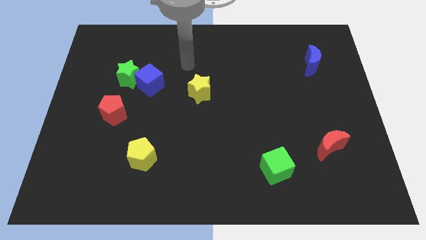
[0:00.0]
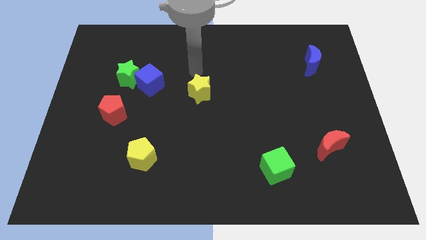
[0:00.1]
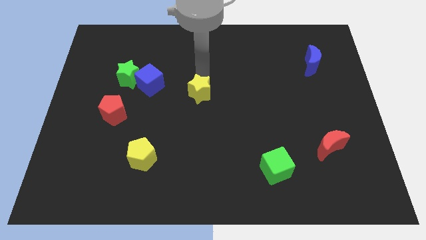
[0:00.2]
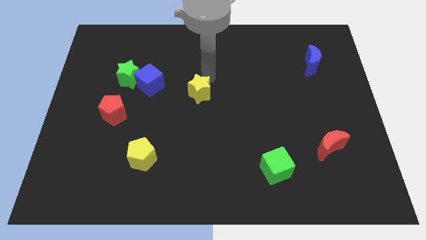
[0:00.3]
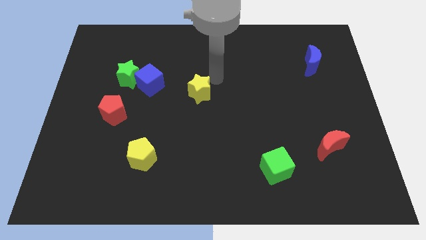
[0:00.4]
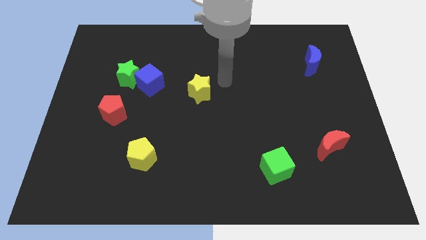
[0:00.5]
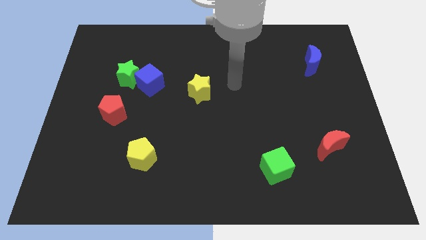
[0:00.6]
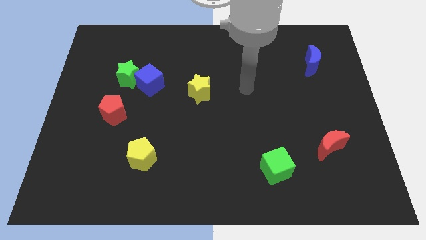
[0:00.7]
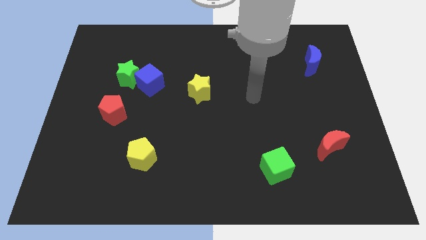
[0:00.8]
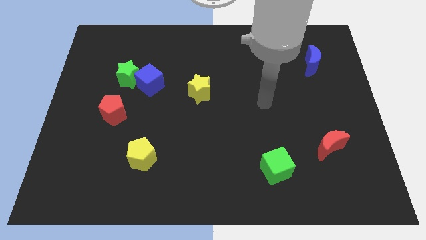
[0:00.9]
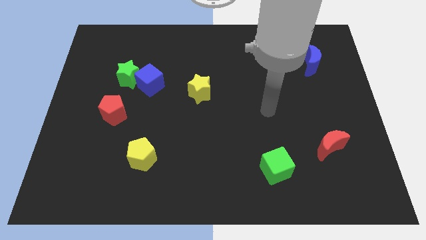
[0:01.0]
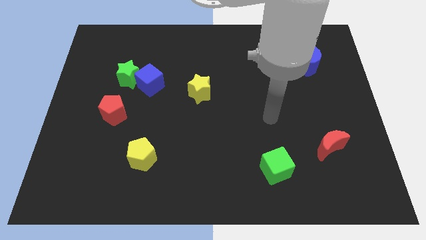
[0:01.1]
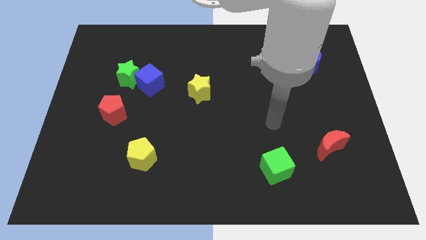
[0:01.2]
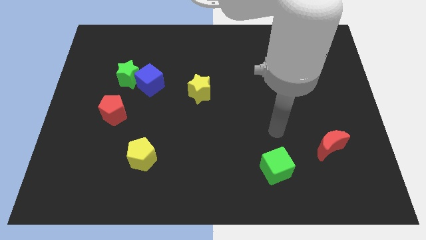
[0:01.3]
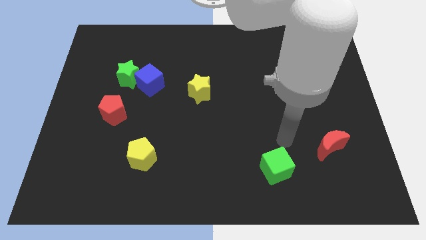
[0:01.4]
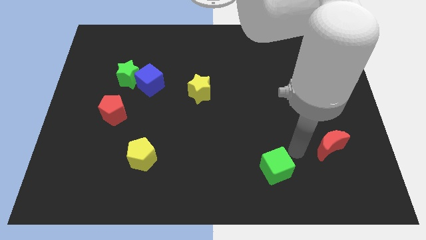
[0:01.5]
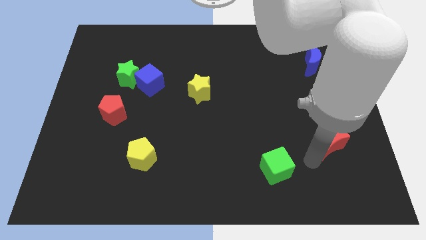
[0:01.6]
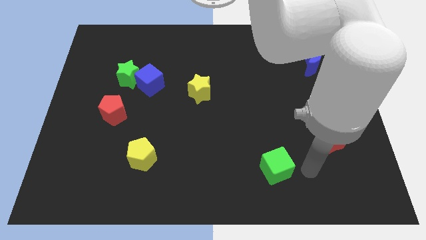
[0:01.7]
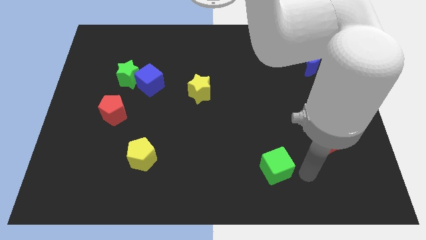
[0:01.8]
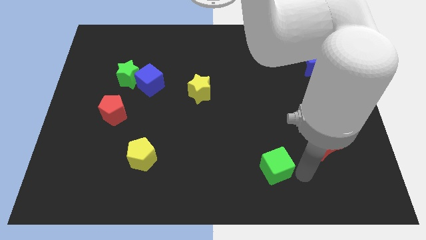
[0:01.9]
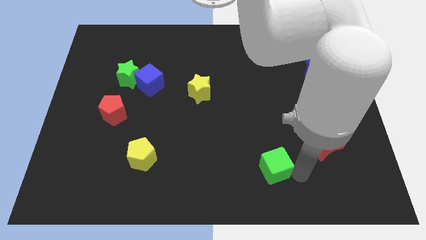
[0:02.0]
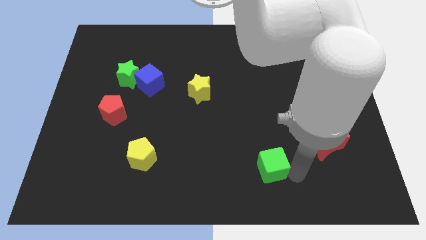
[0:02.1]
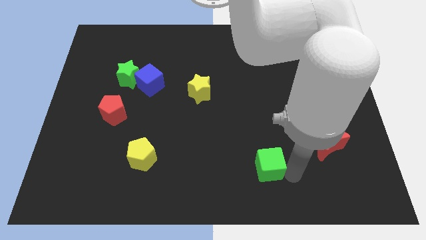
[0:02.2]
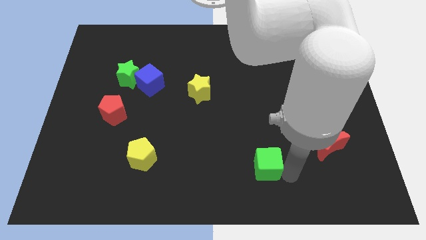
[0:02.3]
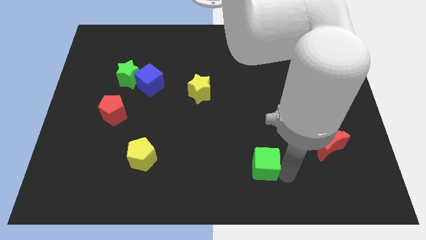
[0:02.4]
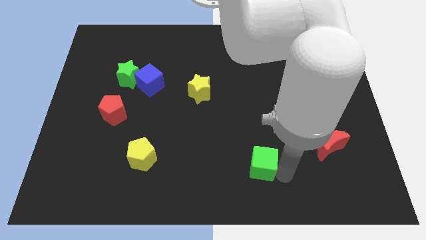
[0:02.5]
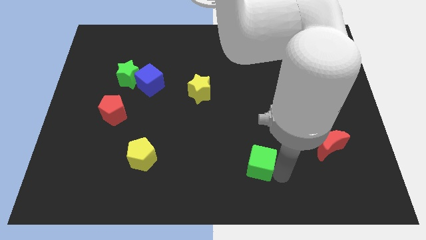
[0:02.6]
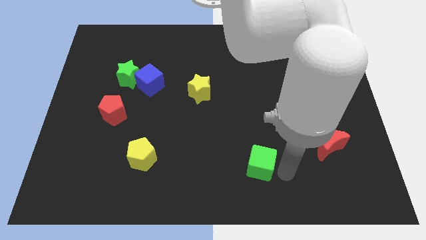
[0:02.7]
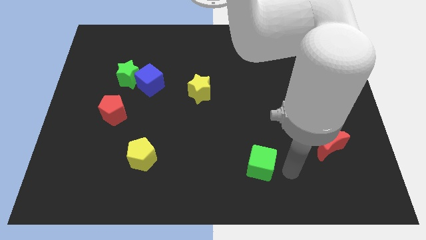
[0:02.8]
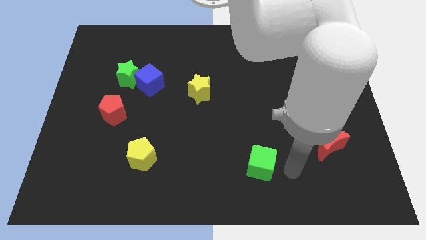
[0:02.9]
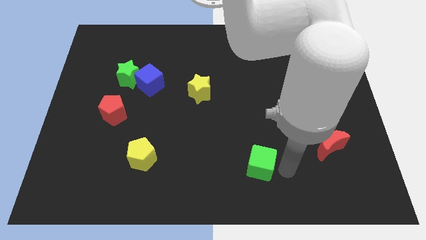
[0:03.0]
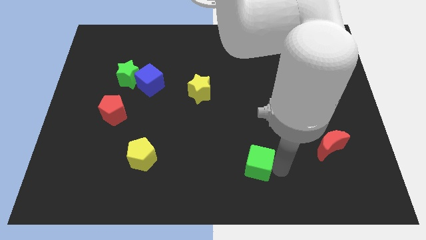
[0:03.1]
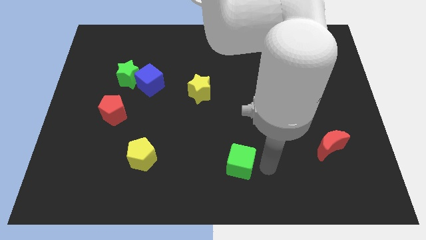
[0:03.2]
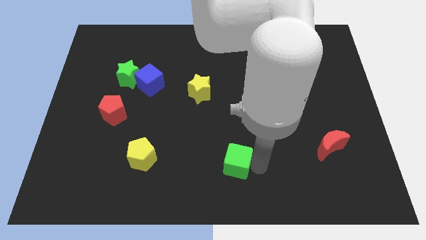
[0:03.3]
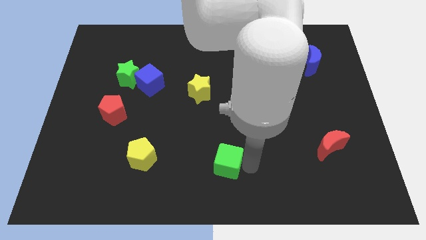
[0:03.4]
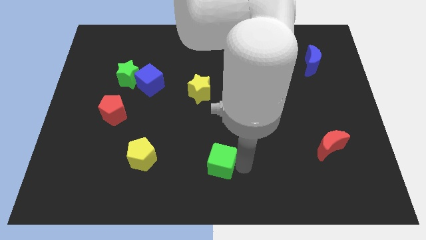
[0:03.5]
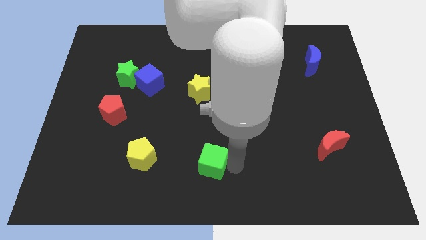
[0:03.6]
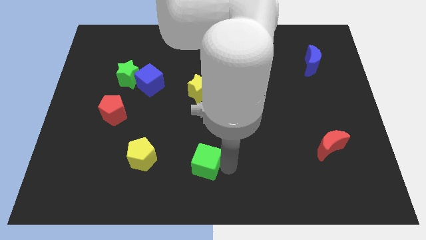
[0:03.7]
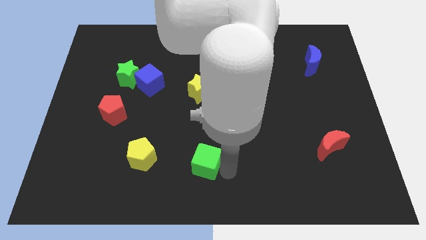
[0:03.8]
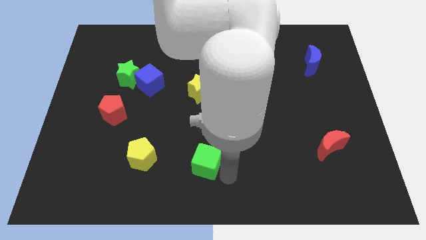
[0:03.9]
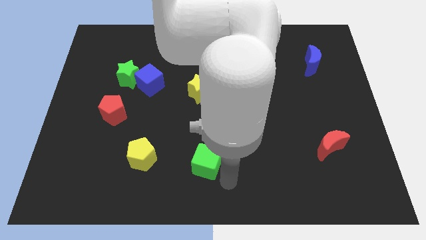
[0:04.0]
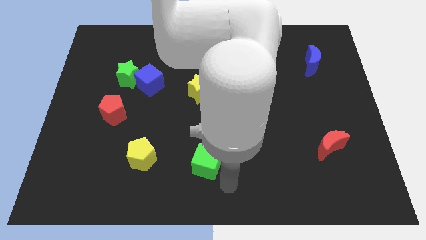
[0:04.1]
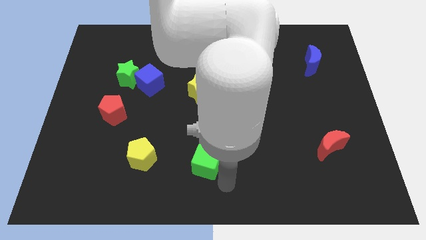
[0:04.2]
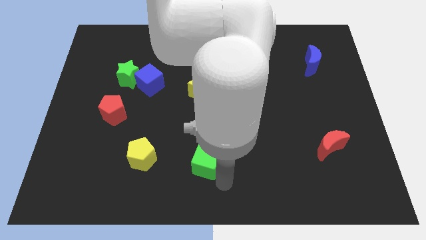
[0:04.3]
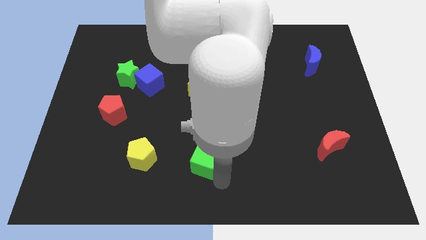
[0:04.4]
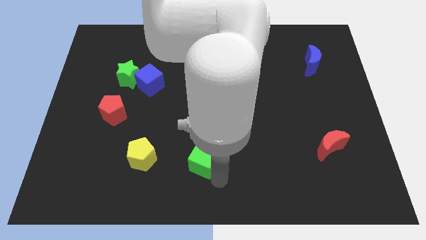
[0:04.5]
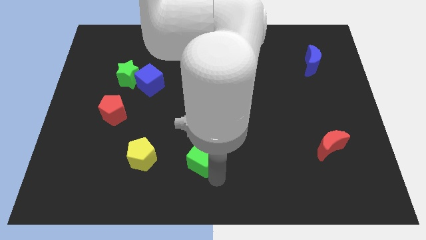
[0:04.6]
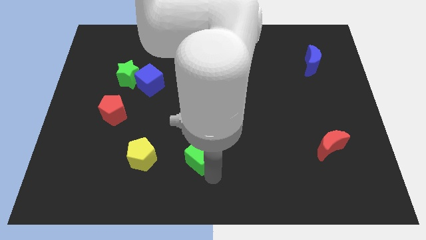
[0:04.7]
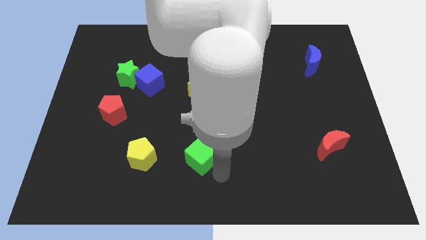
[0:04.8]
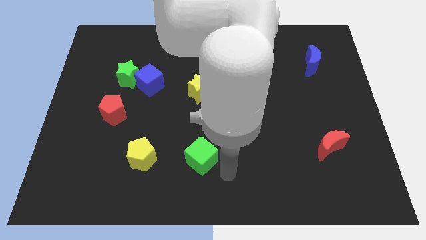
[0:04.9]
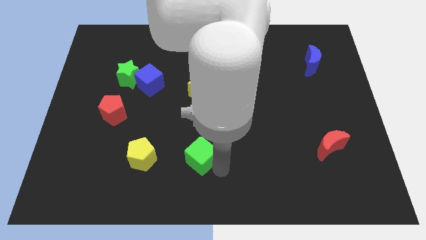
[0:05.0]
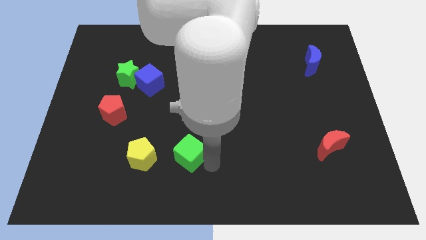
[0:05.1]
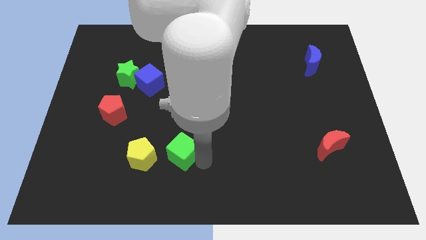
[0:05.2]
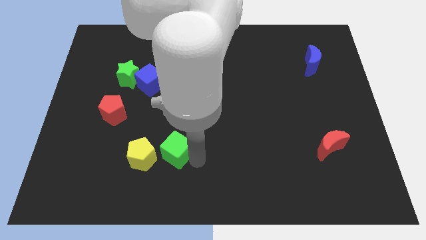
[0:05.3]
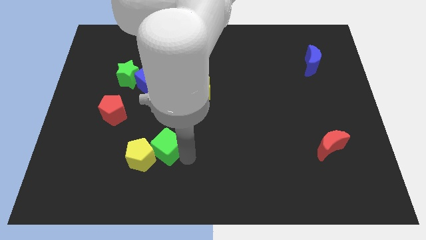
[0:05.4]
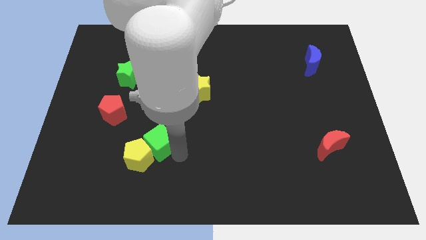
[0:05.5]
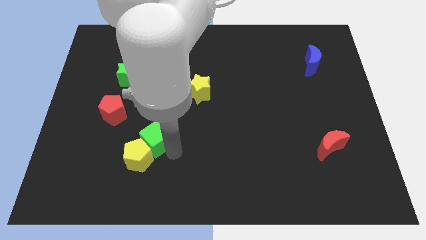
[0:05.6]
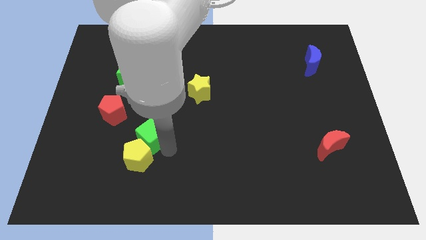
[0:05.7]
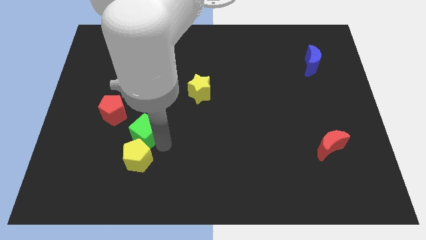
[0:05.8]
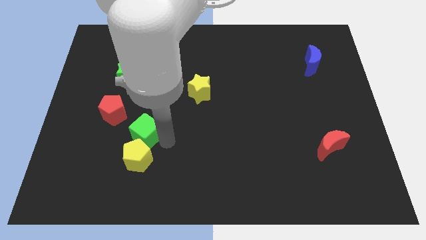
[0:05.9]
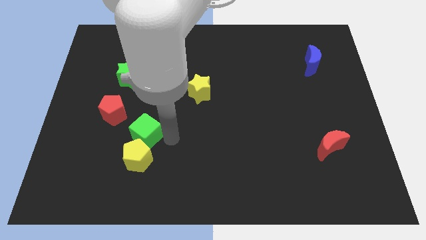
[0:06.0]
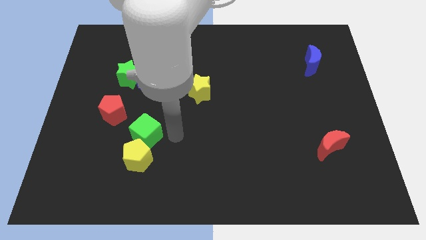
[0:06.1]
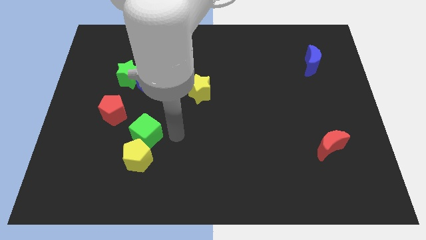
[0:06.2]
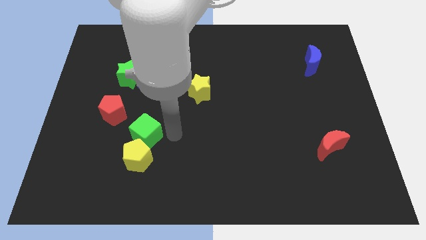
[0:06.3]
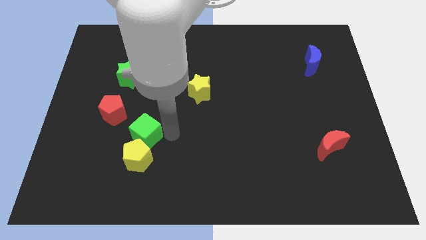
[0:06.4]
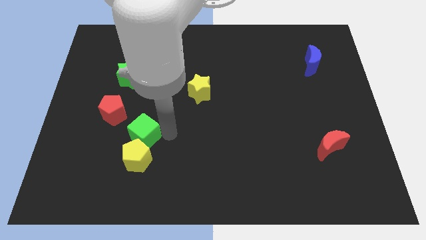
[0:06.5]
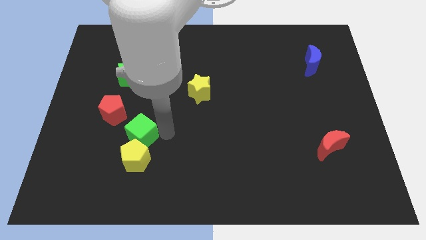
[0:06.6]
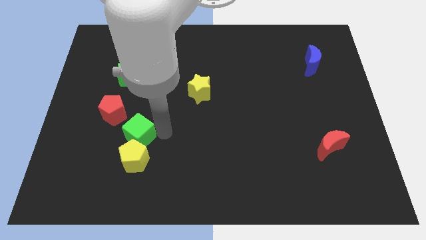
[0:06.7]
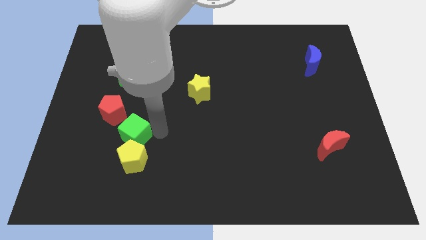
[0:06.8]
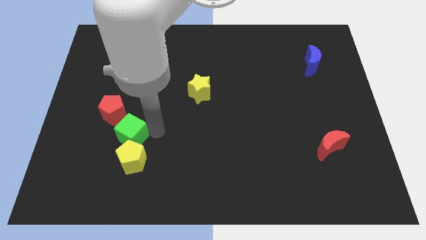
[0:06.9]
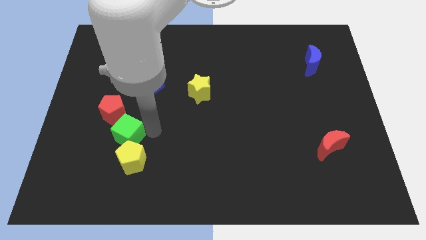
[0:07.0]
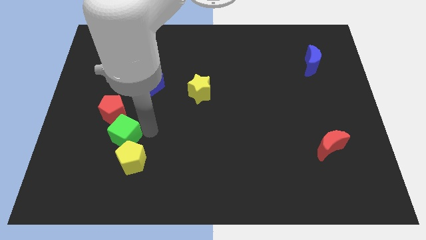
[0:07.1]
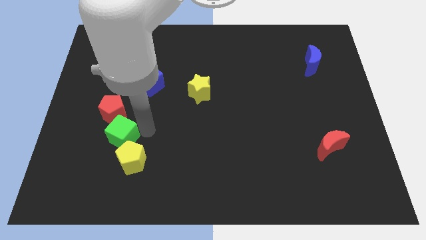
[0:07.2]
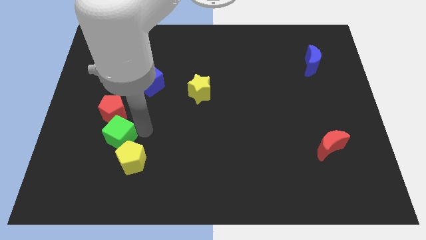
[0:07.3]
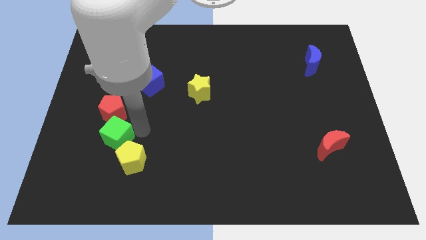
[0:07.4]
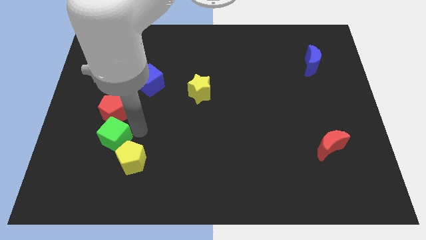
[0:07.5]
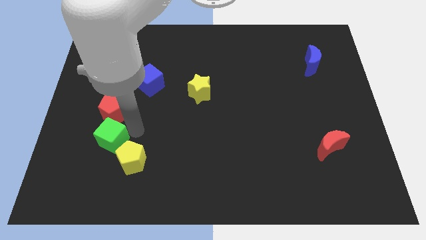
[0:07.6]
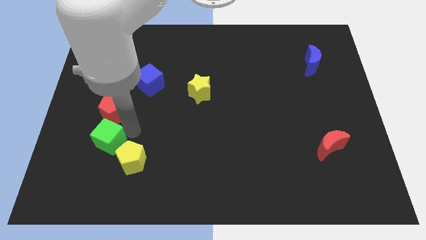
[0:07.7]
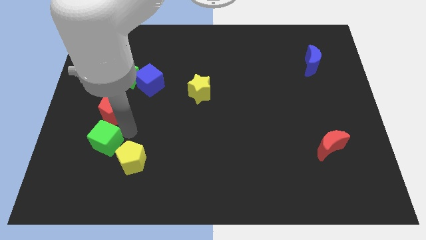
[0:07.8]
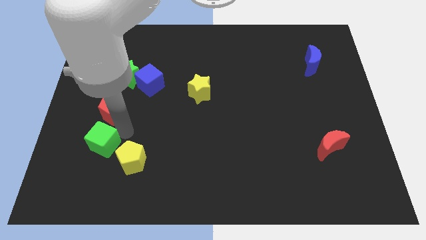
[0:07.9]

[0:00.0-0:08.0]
push the green cube to the bottom left of the red pentagon
